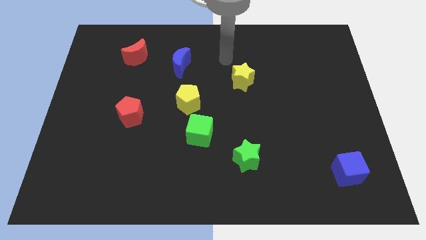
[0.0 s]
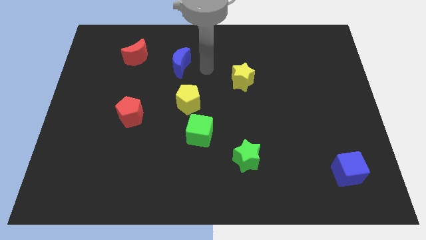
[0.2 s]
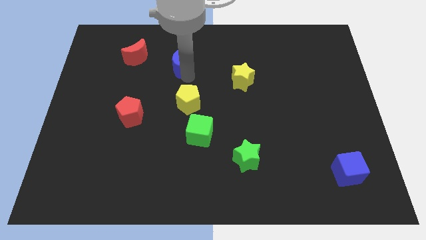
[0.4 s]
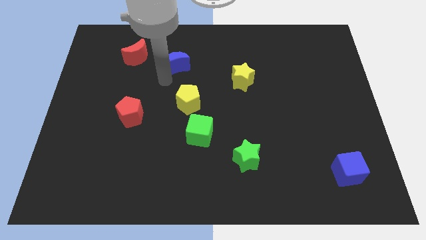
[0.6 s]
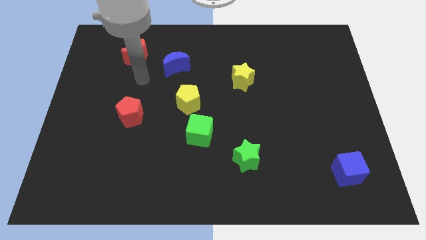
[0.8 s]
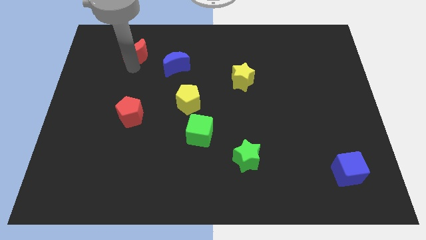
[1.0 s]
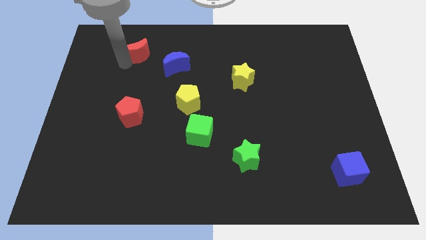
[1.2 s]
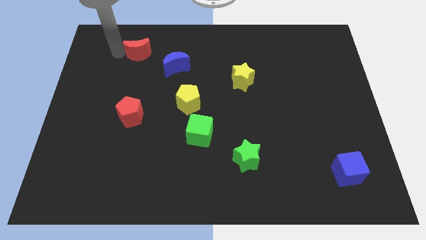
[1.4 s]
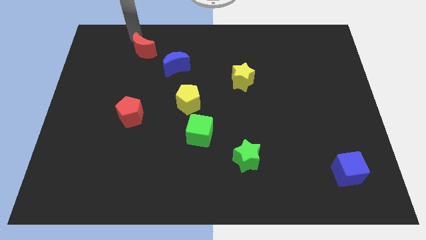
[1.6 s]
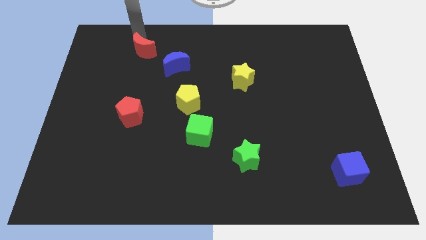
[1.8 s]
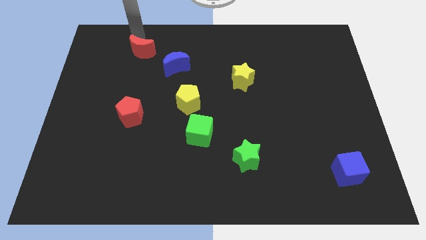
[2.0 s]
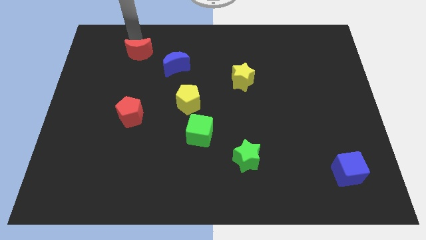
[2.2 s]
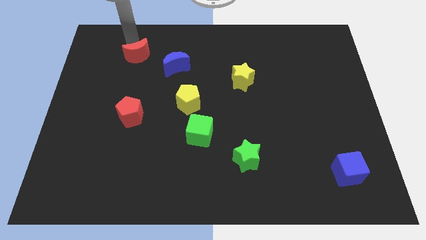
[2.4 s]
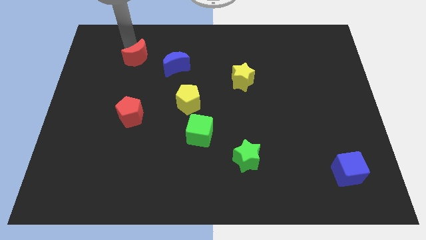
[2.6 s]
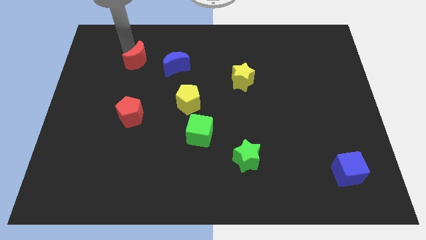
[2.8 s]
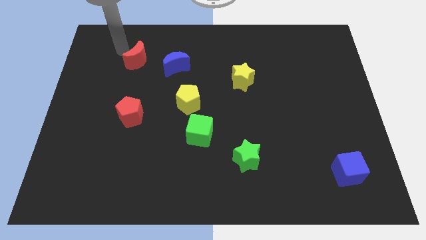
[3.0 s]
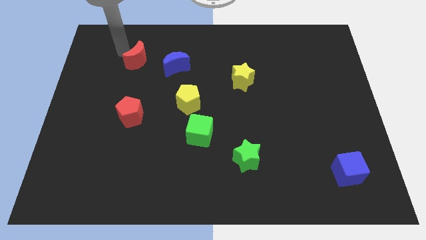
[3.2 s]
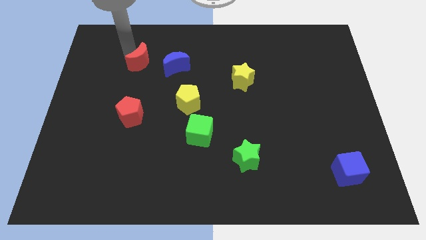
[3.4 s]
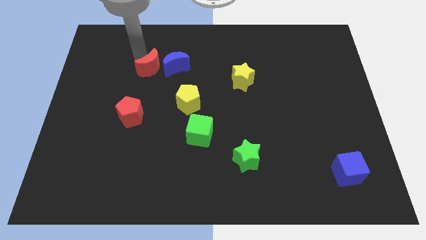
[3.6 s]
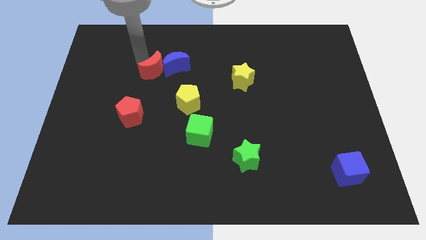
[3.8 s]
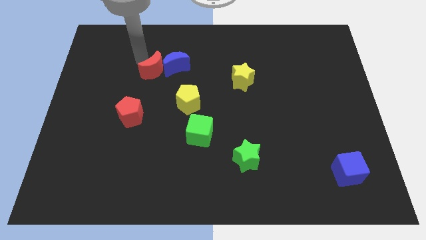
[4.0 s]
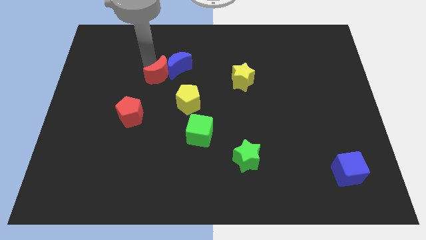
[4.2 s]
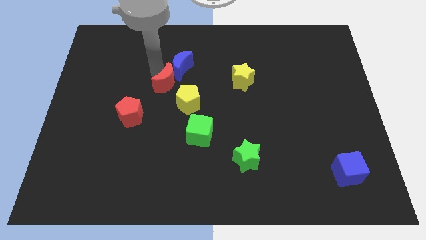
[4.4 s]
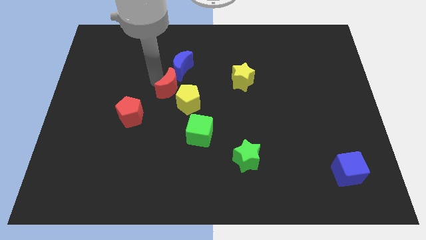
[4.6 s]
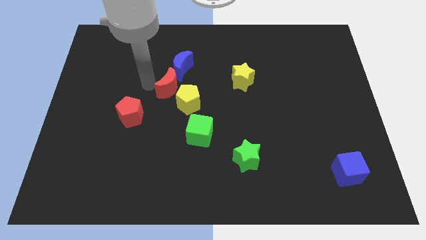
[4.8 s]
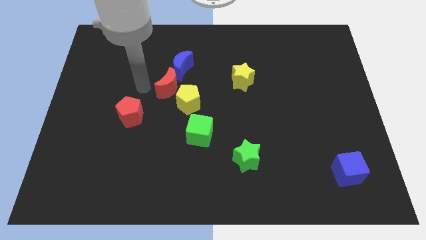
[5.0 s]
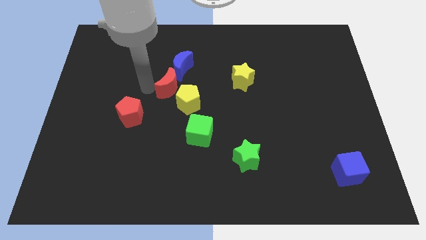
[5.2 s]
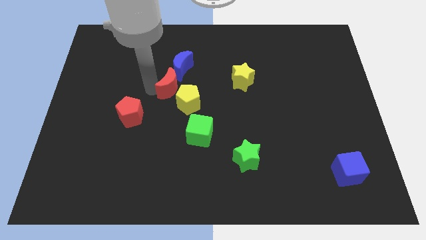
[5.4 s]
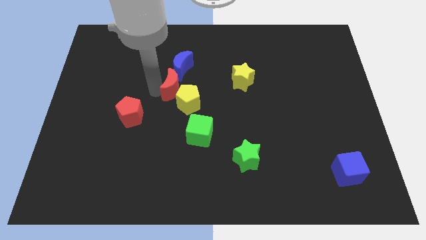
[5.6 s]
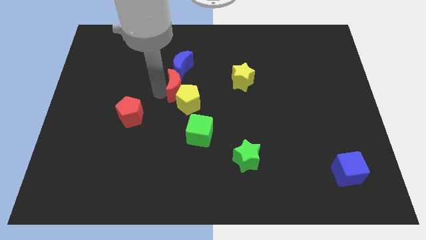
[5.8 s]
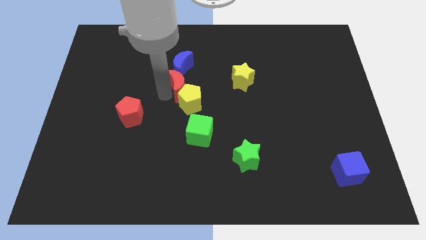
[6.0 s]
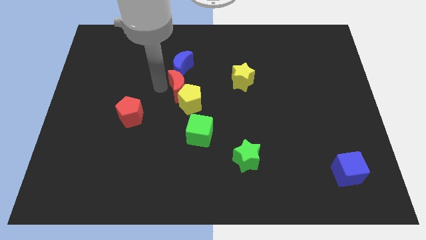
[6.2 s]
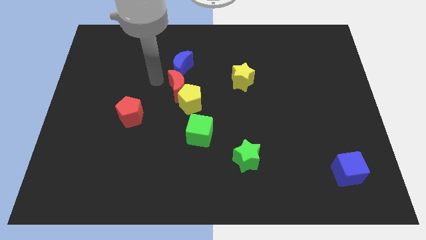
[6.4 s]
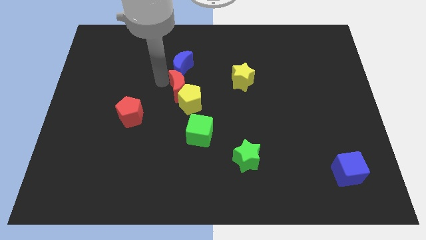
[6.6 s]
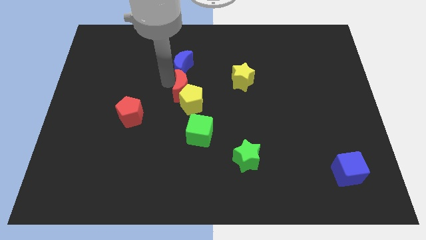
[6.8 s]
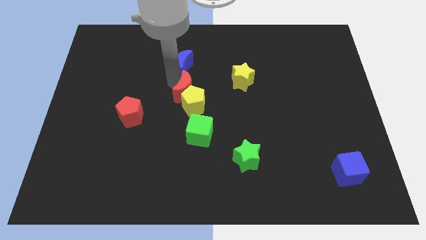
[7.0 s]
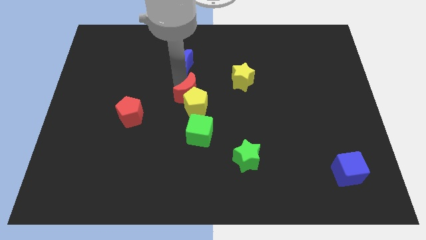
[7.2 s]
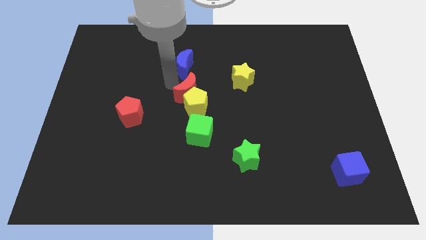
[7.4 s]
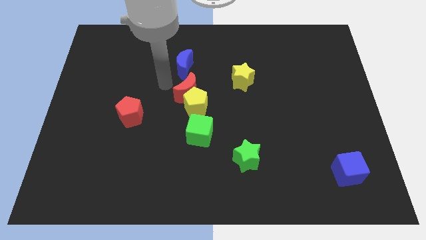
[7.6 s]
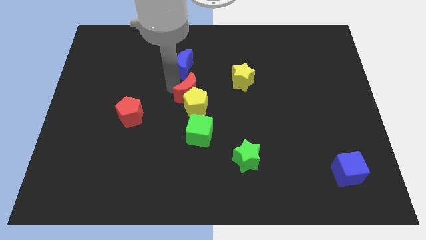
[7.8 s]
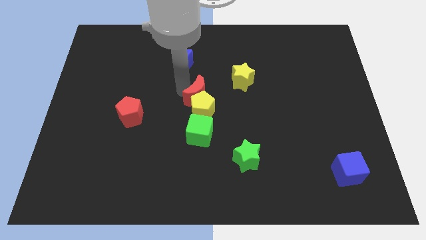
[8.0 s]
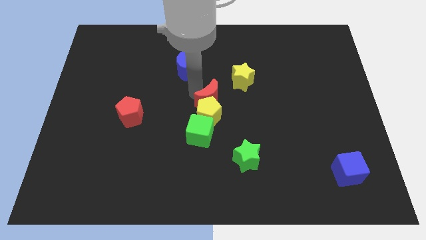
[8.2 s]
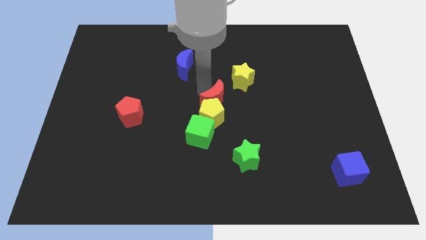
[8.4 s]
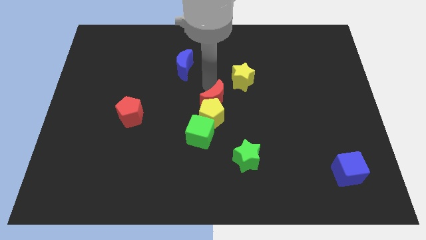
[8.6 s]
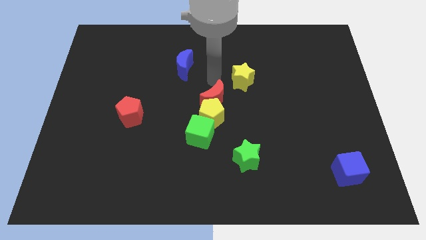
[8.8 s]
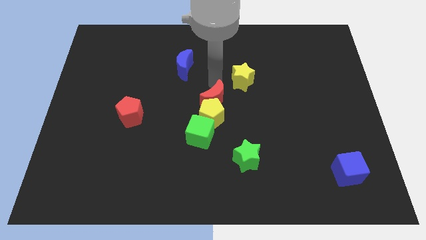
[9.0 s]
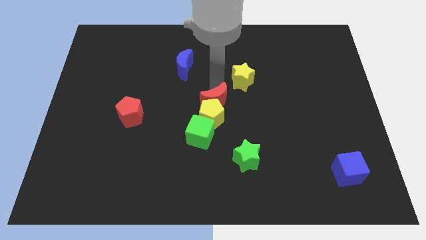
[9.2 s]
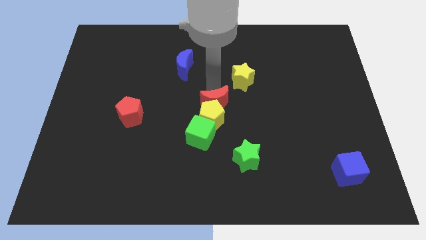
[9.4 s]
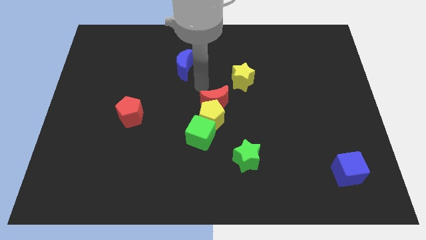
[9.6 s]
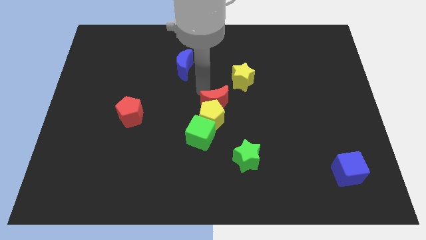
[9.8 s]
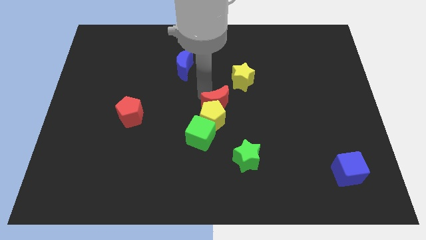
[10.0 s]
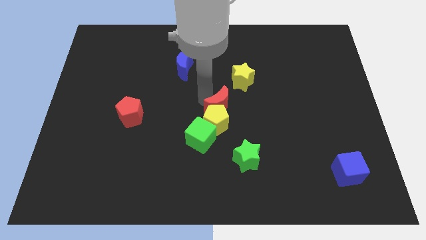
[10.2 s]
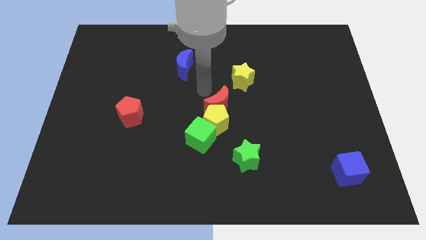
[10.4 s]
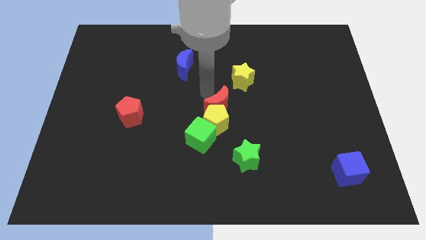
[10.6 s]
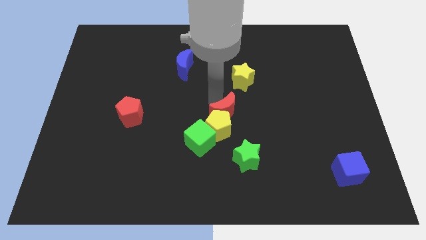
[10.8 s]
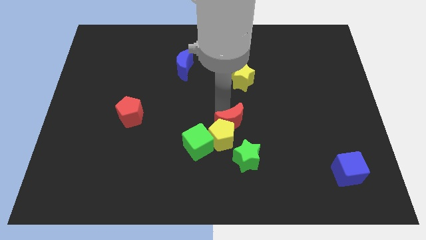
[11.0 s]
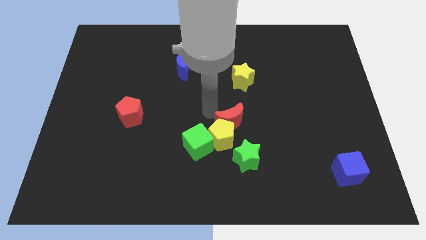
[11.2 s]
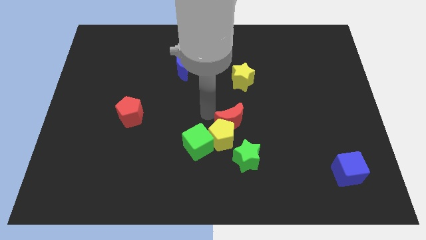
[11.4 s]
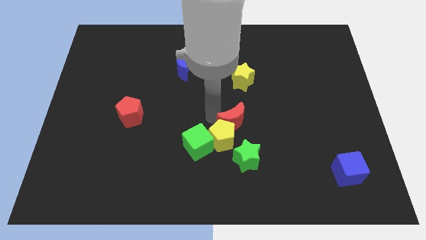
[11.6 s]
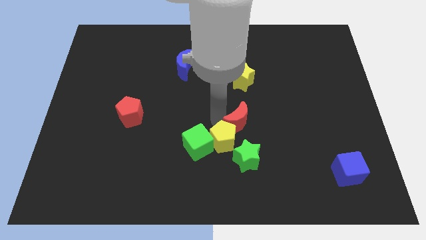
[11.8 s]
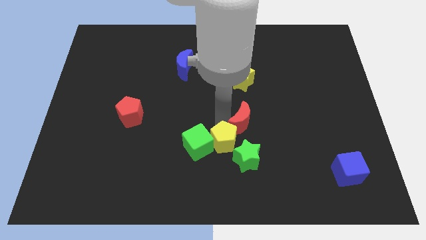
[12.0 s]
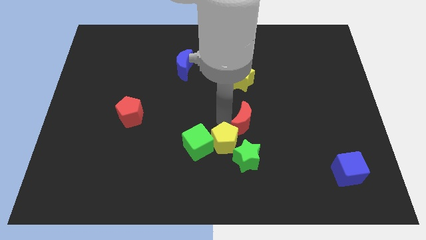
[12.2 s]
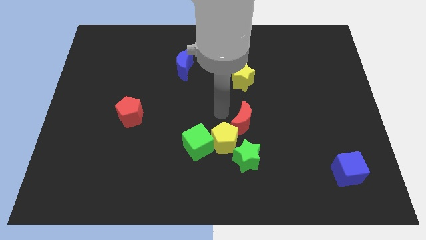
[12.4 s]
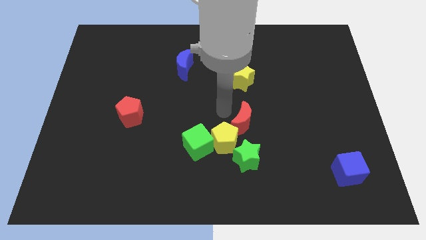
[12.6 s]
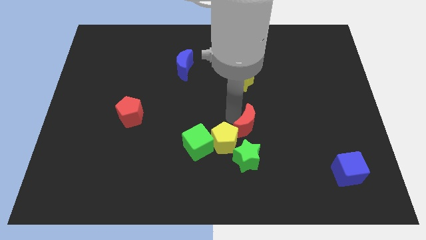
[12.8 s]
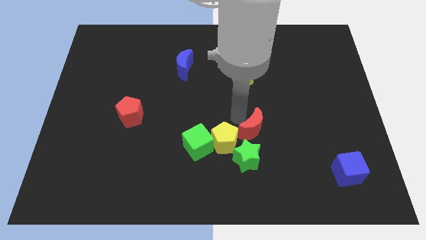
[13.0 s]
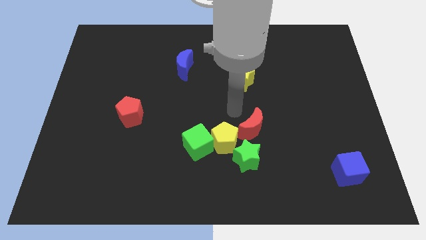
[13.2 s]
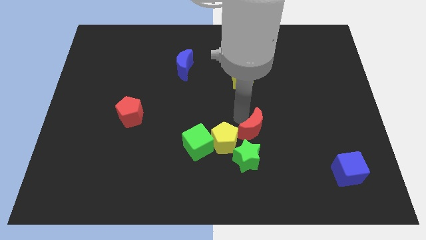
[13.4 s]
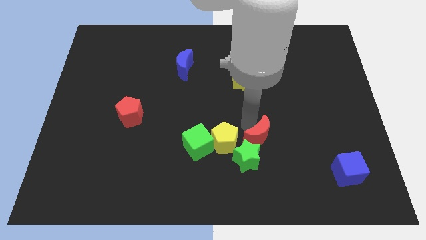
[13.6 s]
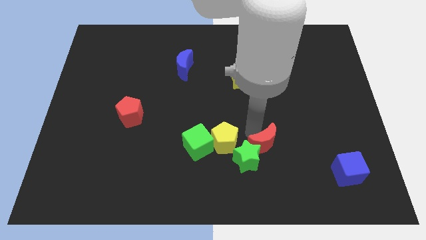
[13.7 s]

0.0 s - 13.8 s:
move the red moon just right of the green star

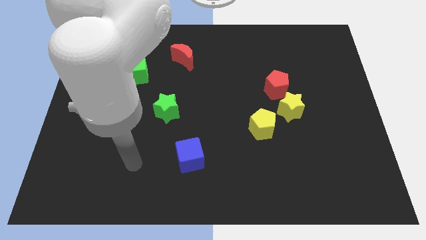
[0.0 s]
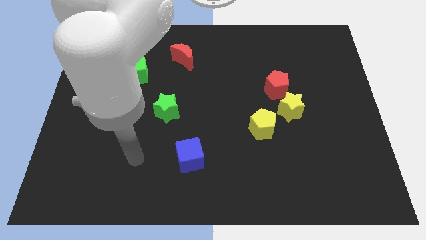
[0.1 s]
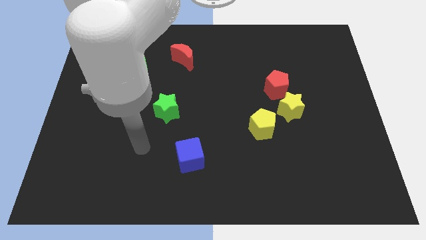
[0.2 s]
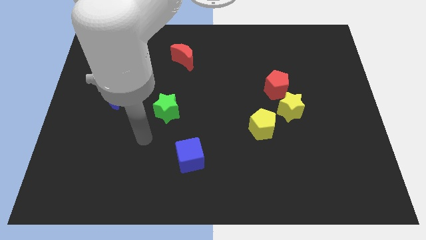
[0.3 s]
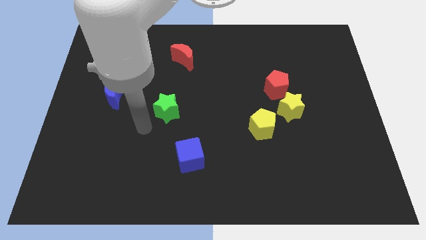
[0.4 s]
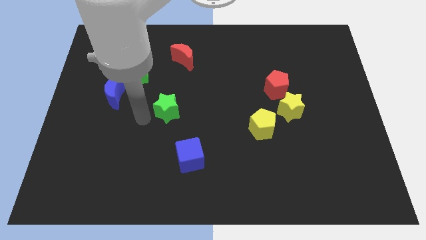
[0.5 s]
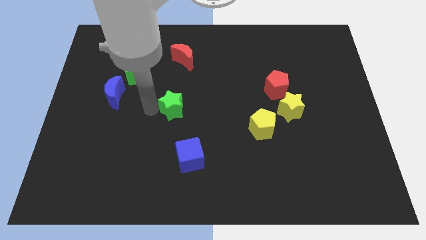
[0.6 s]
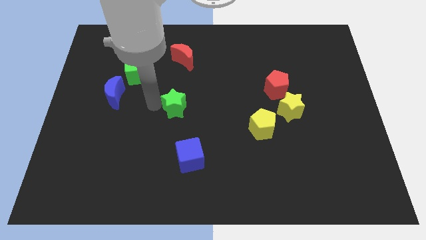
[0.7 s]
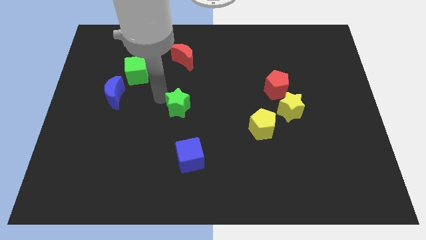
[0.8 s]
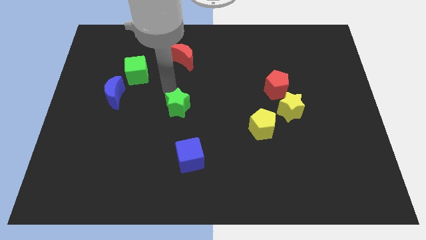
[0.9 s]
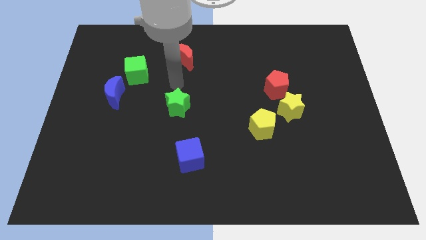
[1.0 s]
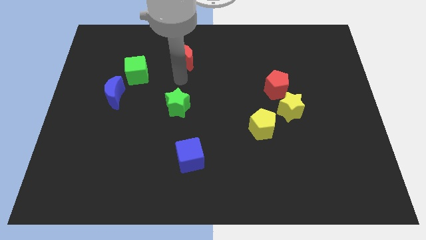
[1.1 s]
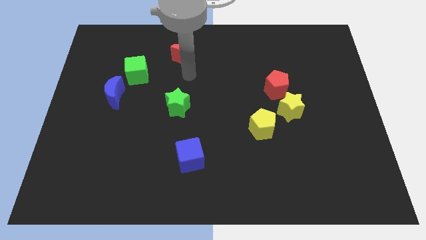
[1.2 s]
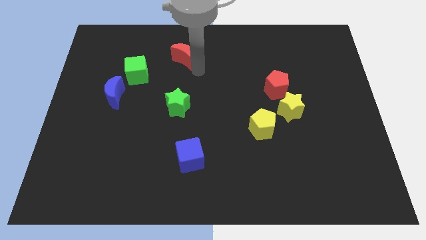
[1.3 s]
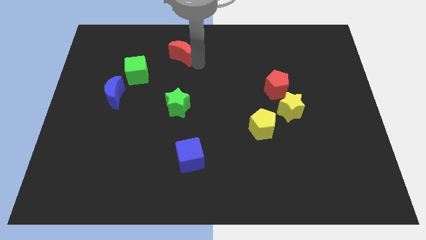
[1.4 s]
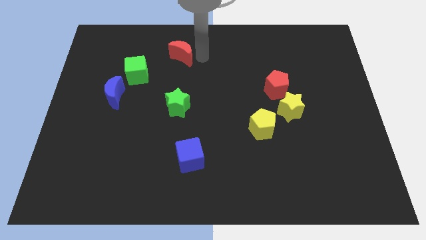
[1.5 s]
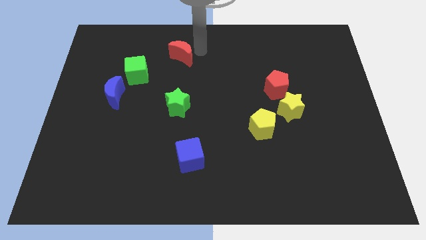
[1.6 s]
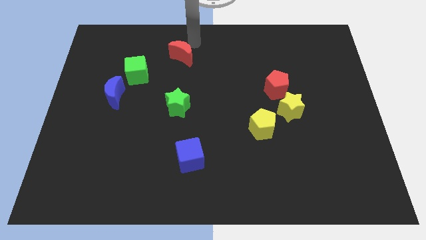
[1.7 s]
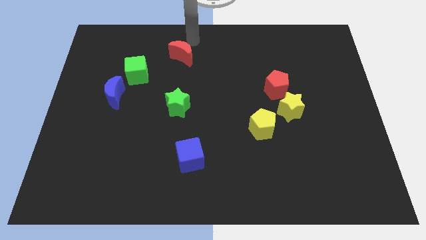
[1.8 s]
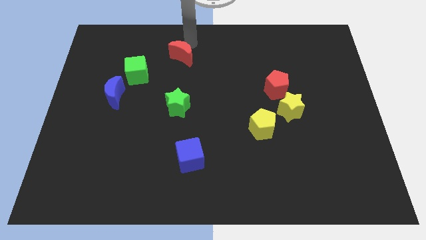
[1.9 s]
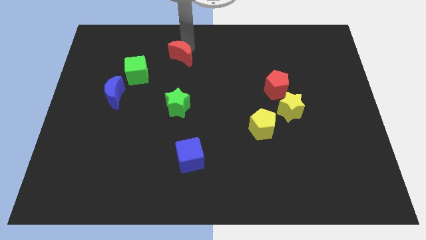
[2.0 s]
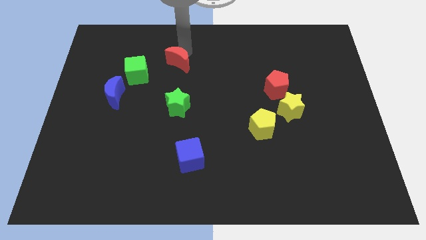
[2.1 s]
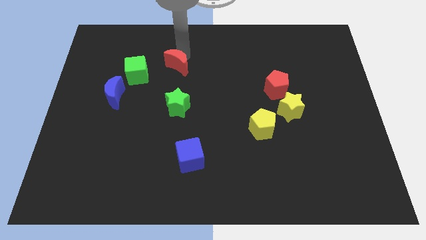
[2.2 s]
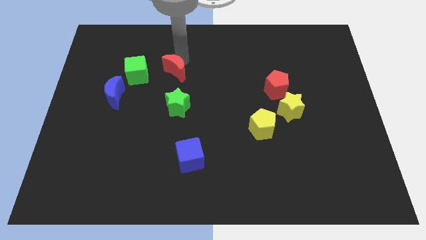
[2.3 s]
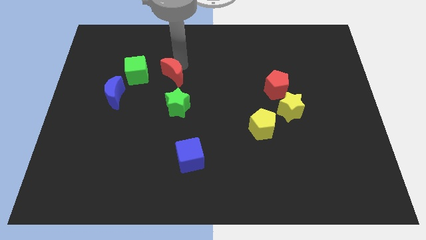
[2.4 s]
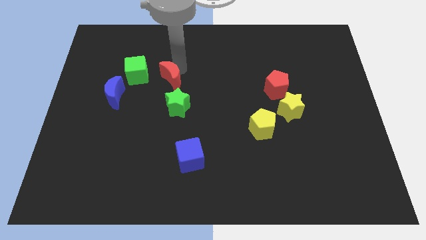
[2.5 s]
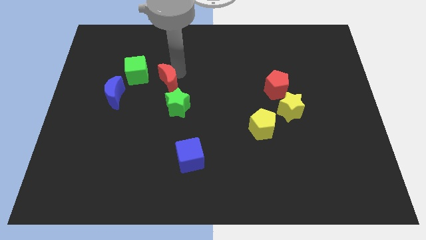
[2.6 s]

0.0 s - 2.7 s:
move the red moon diagonally up and to the left of the green star
